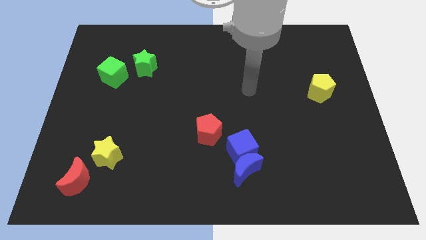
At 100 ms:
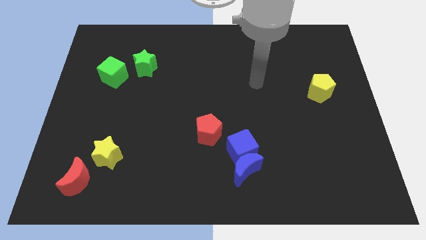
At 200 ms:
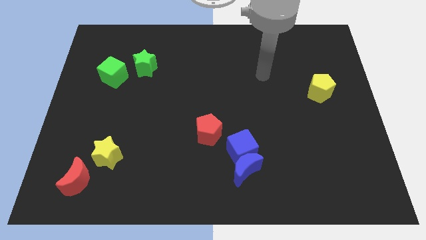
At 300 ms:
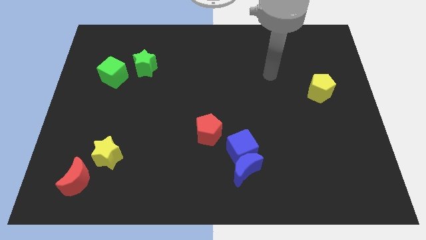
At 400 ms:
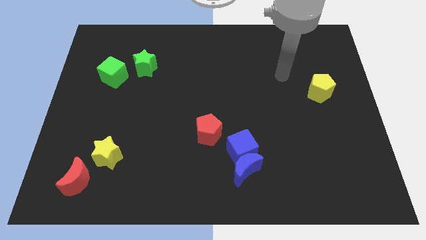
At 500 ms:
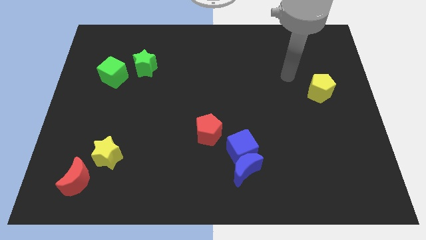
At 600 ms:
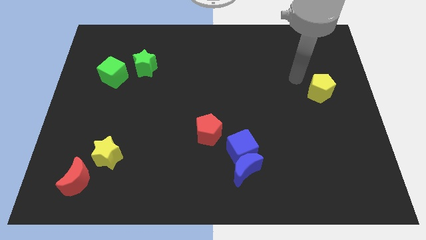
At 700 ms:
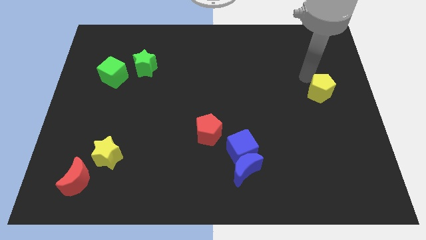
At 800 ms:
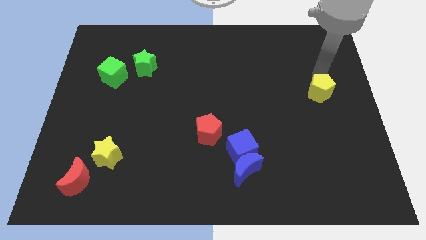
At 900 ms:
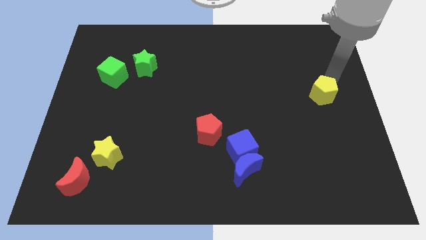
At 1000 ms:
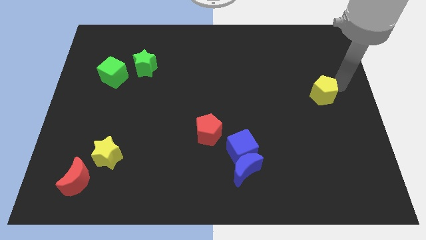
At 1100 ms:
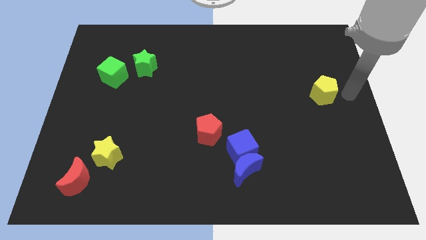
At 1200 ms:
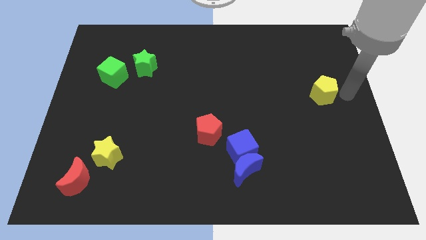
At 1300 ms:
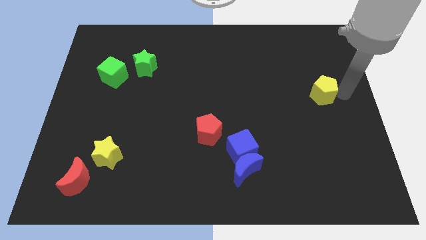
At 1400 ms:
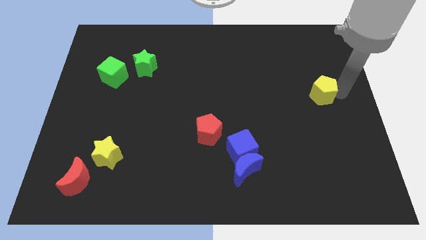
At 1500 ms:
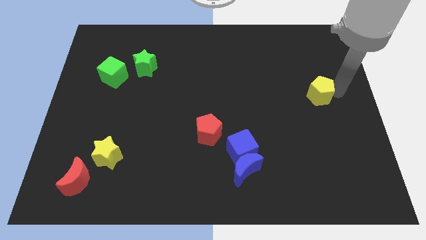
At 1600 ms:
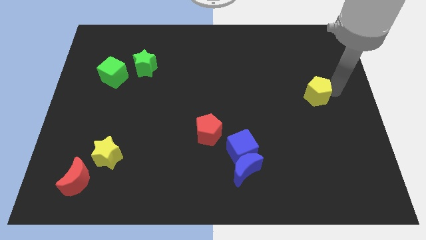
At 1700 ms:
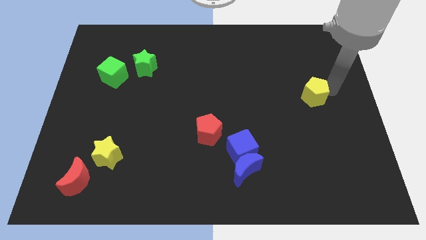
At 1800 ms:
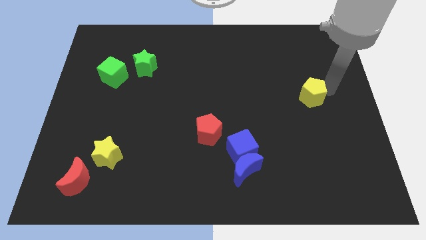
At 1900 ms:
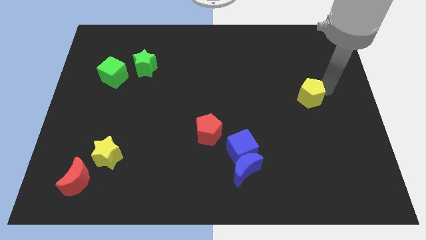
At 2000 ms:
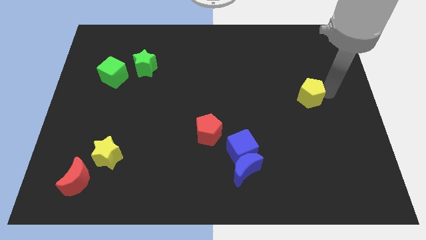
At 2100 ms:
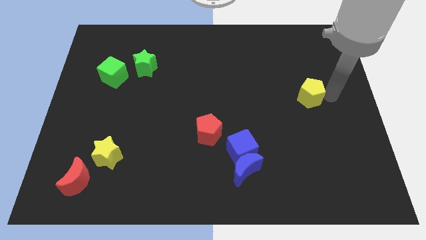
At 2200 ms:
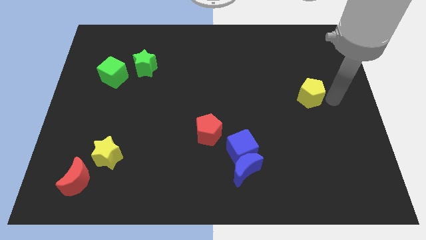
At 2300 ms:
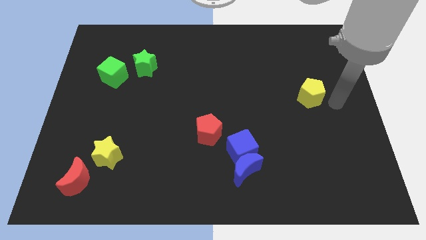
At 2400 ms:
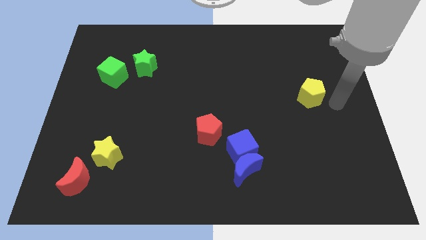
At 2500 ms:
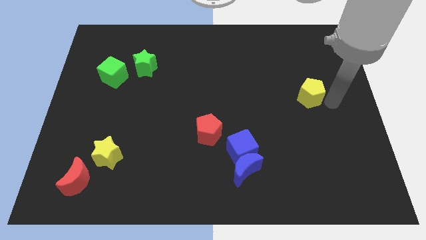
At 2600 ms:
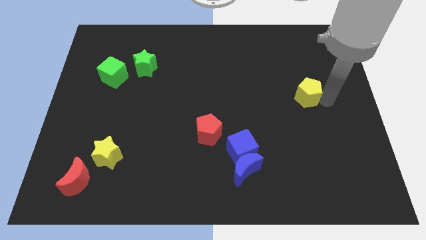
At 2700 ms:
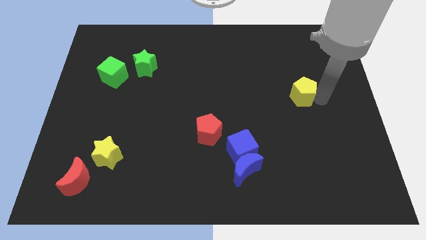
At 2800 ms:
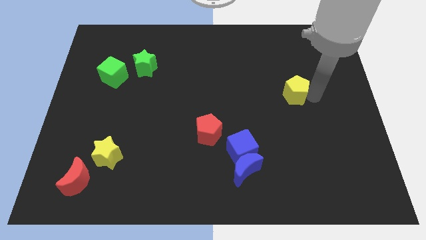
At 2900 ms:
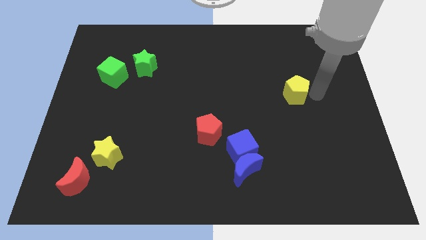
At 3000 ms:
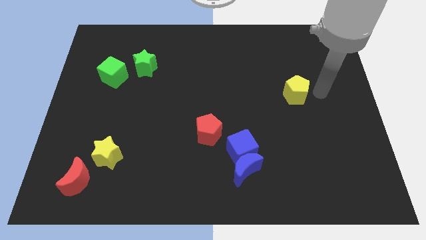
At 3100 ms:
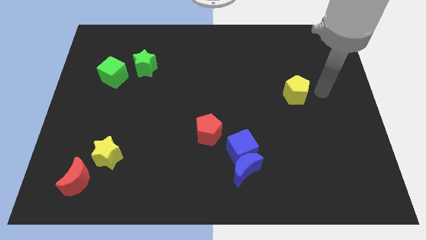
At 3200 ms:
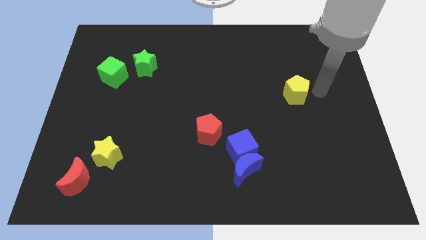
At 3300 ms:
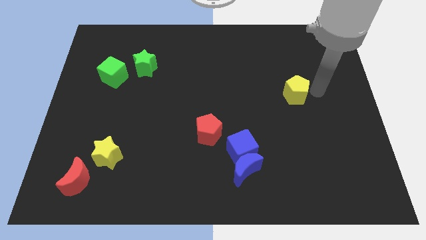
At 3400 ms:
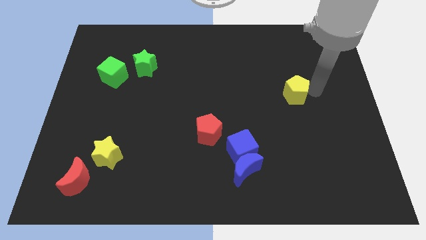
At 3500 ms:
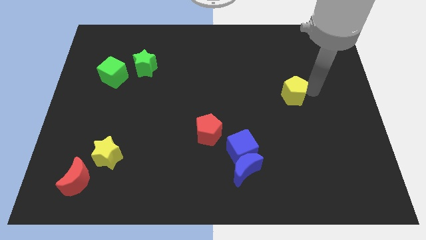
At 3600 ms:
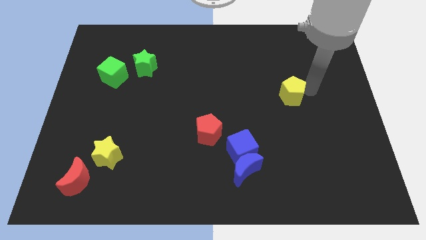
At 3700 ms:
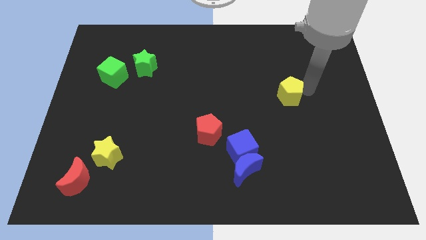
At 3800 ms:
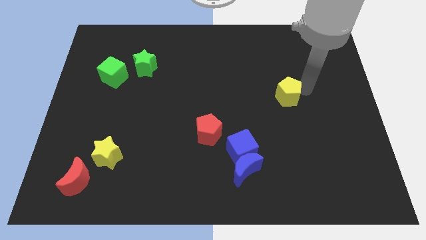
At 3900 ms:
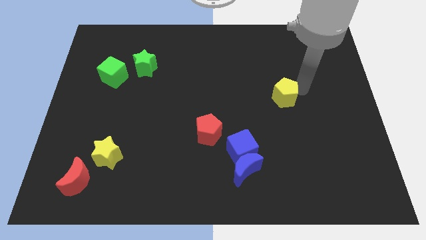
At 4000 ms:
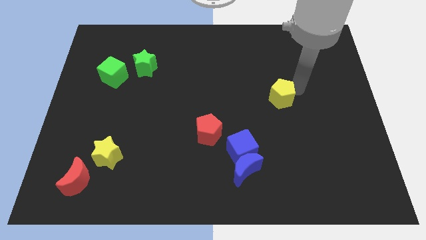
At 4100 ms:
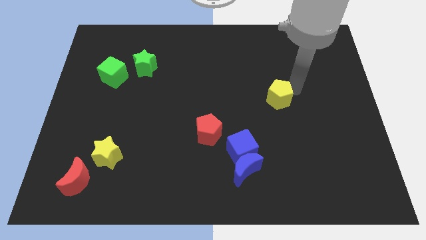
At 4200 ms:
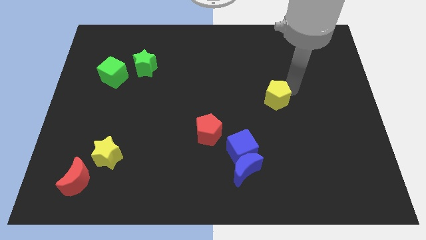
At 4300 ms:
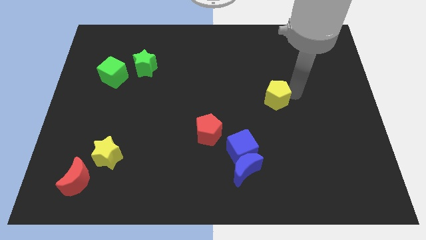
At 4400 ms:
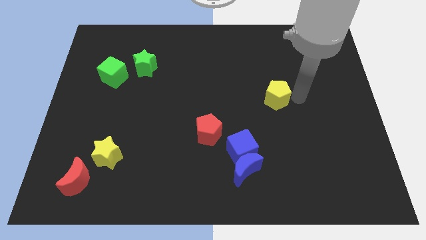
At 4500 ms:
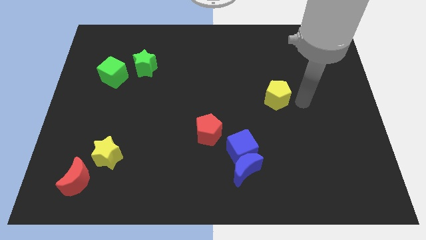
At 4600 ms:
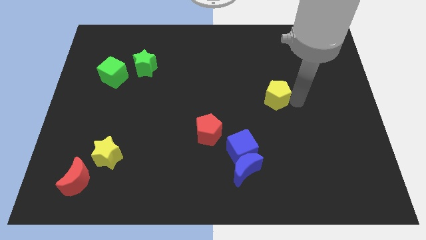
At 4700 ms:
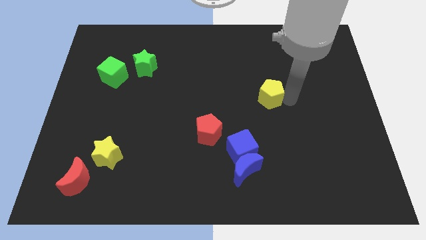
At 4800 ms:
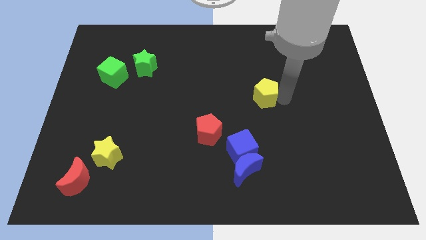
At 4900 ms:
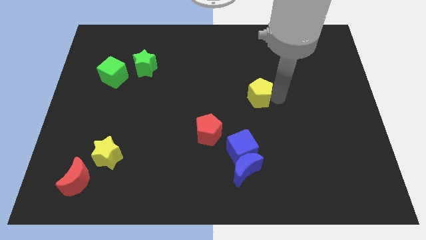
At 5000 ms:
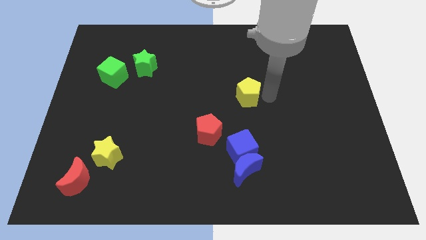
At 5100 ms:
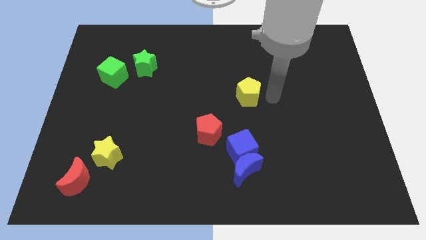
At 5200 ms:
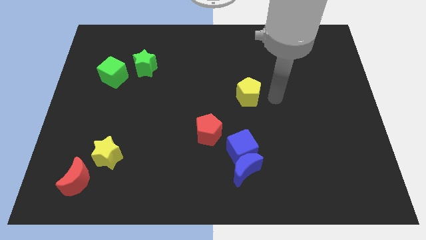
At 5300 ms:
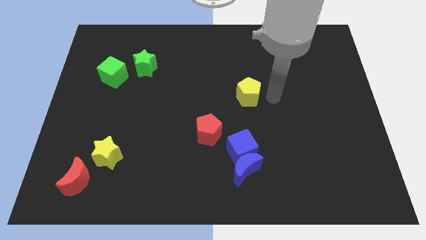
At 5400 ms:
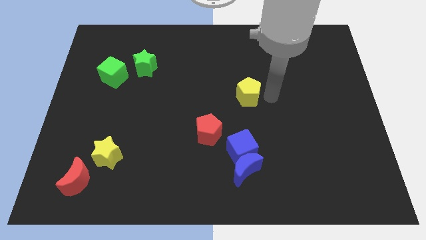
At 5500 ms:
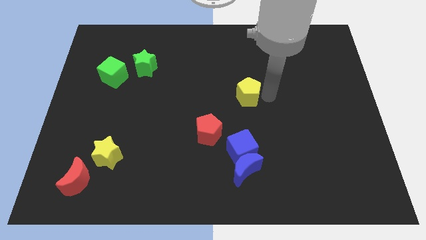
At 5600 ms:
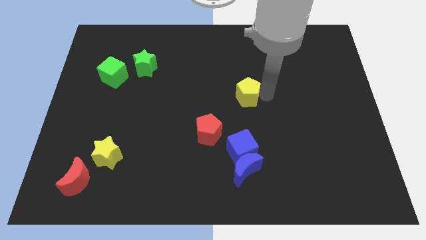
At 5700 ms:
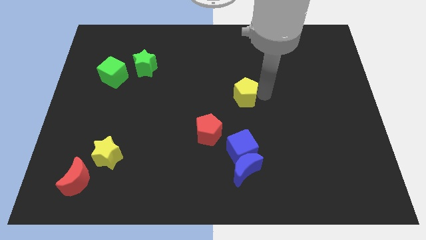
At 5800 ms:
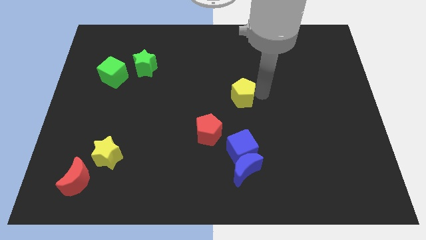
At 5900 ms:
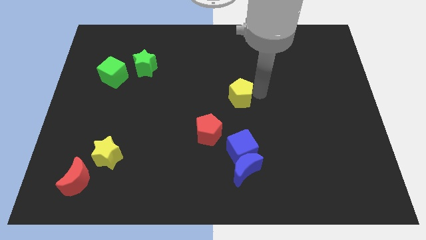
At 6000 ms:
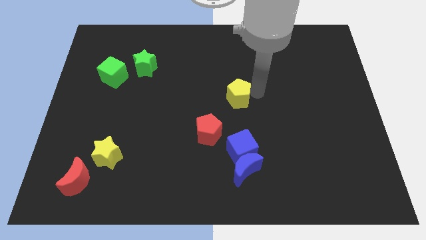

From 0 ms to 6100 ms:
move the yellow pentagon left

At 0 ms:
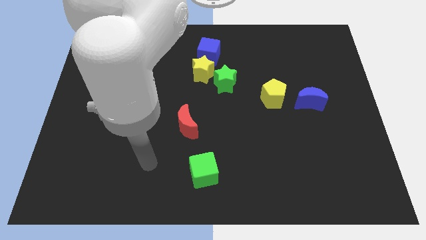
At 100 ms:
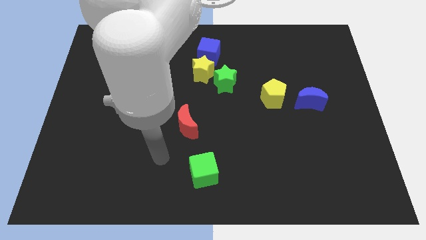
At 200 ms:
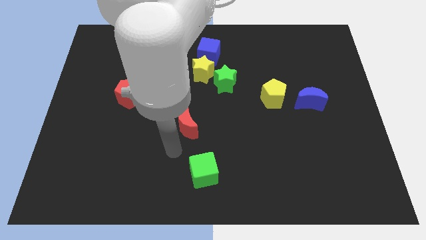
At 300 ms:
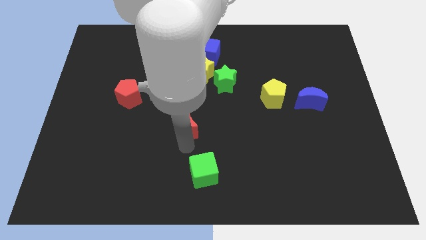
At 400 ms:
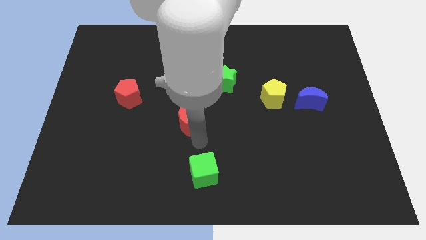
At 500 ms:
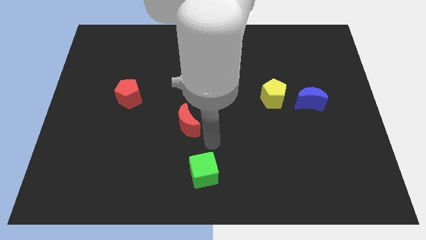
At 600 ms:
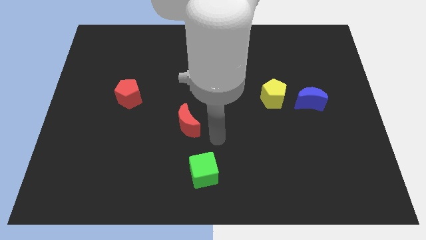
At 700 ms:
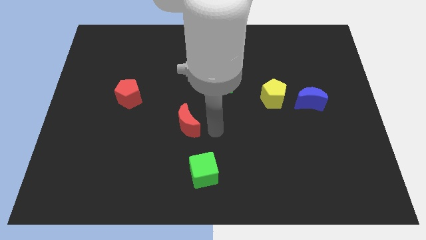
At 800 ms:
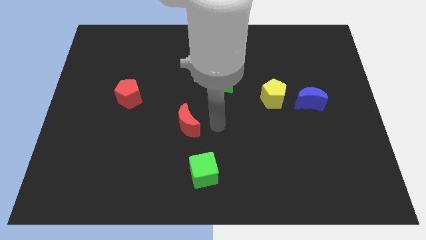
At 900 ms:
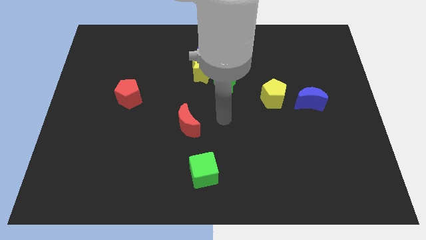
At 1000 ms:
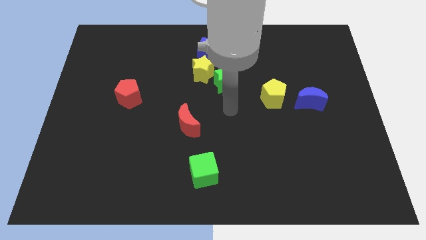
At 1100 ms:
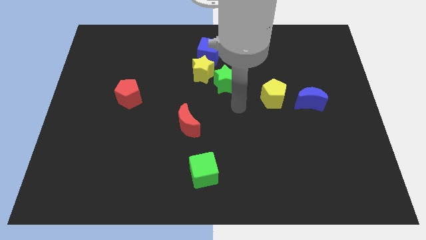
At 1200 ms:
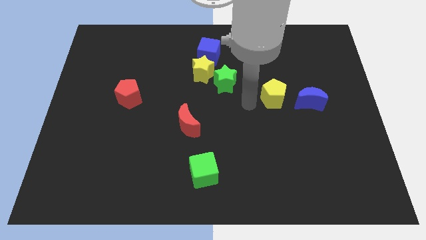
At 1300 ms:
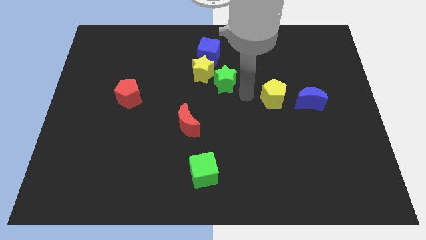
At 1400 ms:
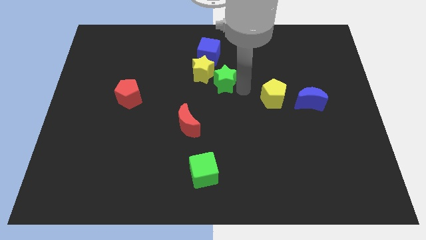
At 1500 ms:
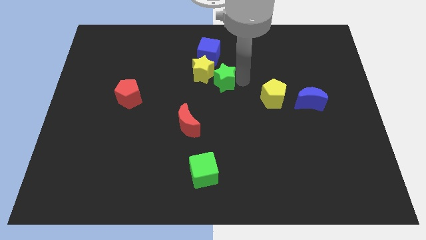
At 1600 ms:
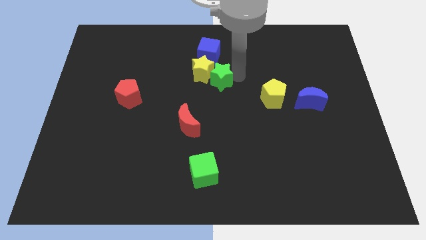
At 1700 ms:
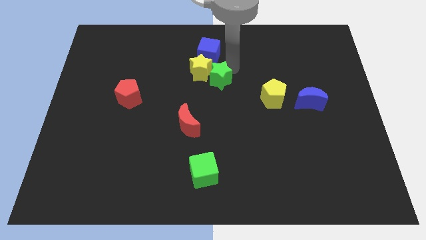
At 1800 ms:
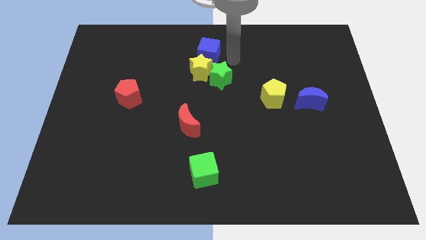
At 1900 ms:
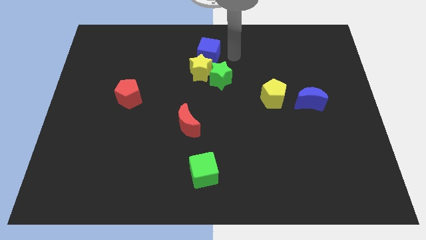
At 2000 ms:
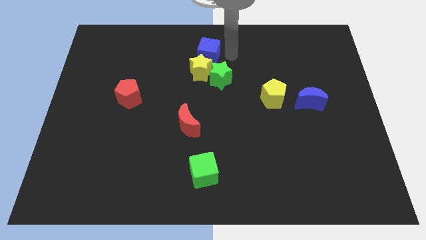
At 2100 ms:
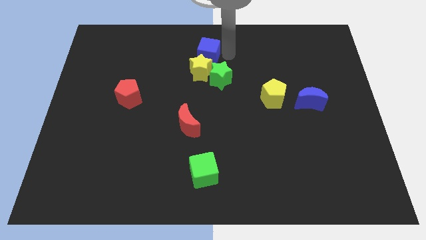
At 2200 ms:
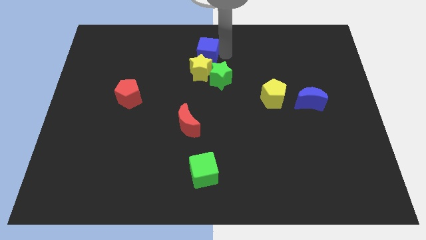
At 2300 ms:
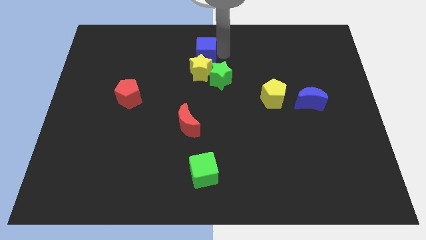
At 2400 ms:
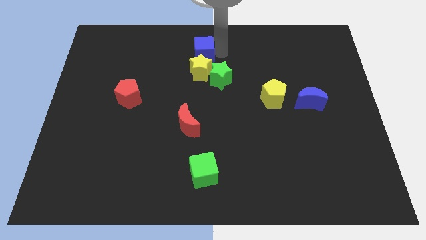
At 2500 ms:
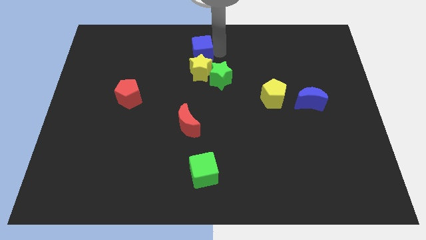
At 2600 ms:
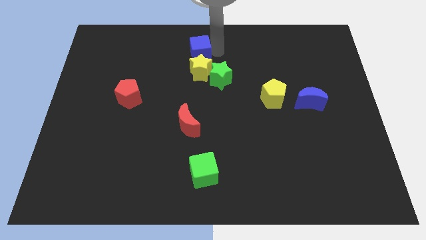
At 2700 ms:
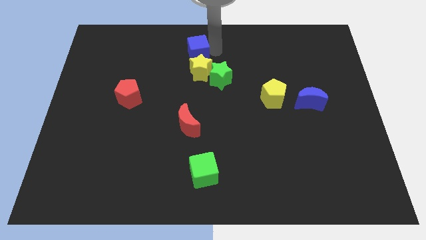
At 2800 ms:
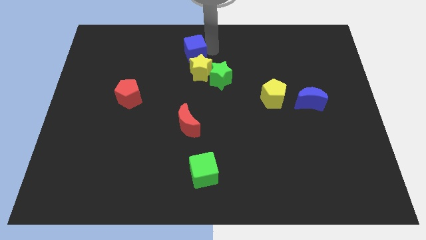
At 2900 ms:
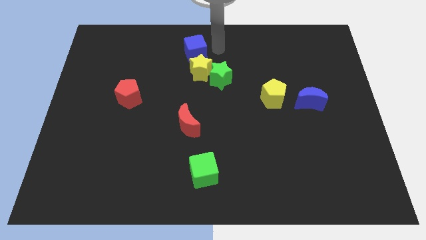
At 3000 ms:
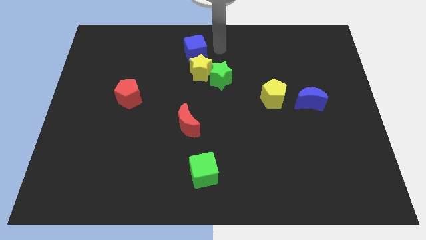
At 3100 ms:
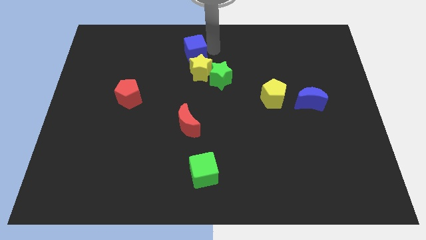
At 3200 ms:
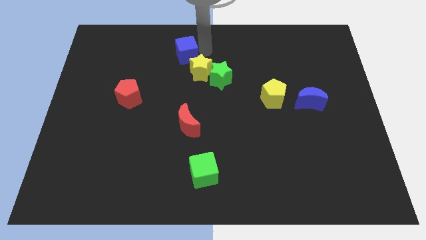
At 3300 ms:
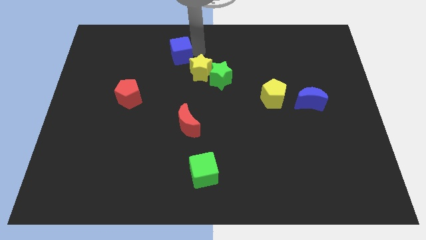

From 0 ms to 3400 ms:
slightly move the blue cube to the left
